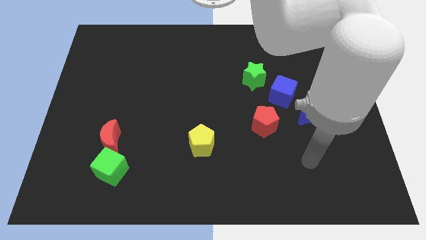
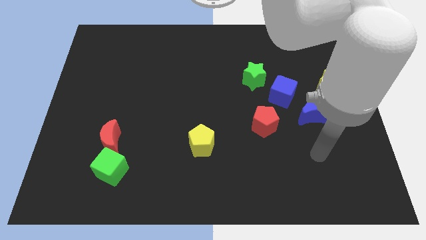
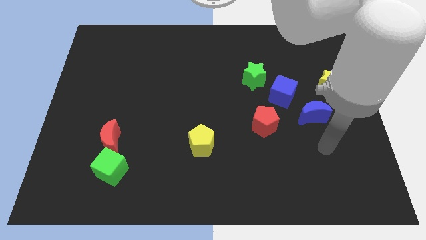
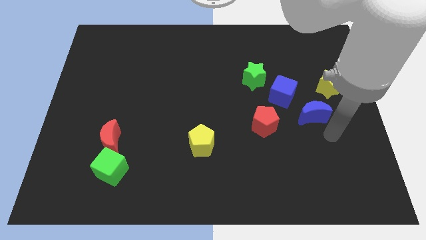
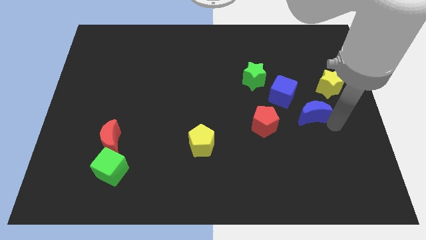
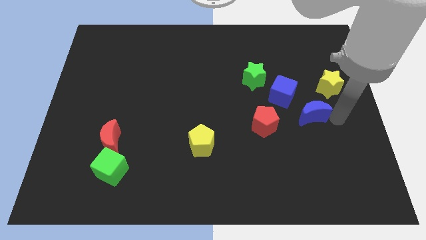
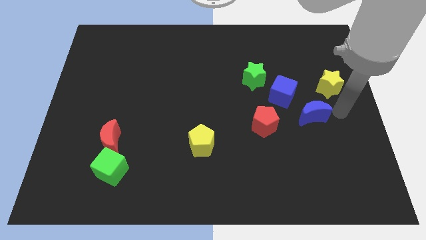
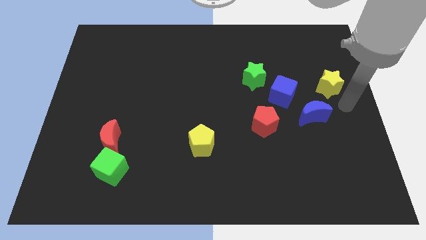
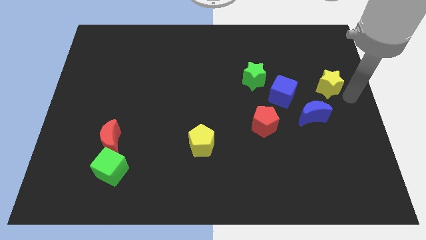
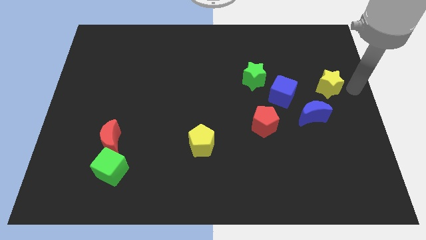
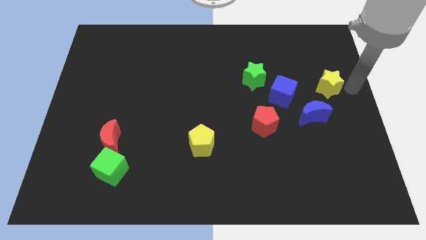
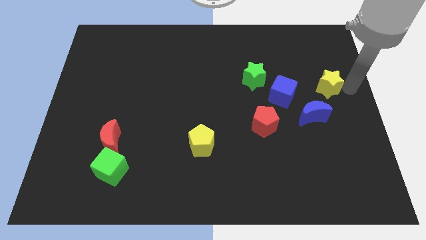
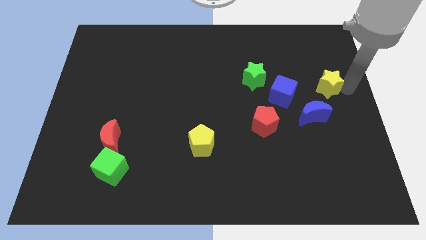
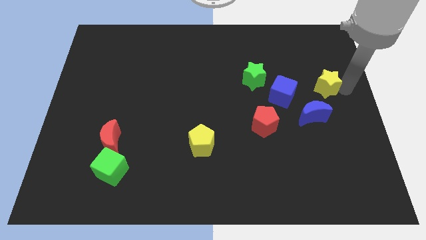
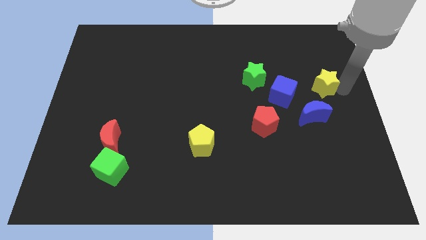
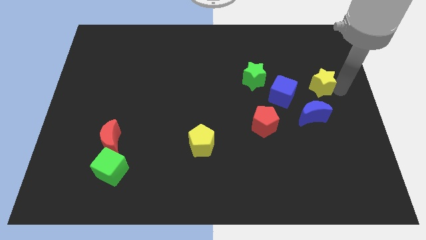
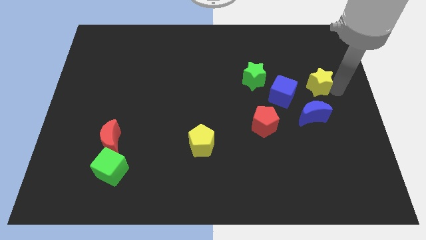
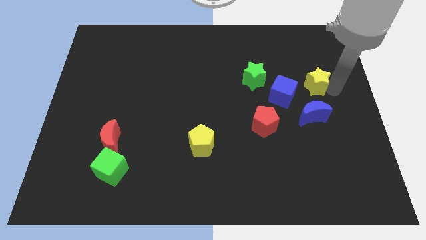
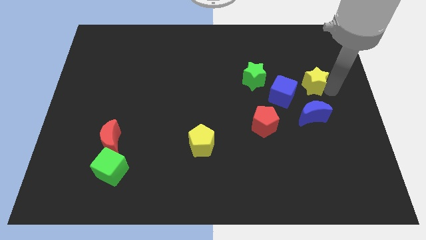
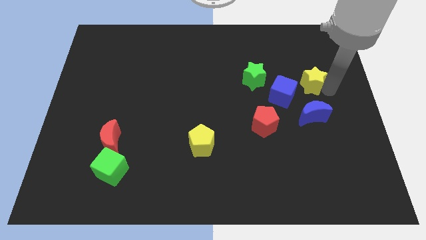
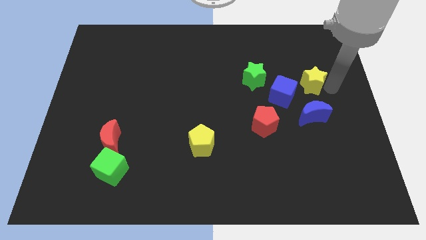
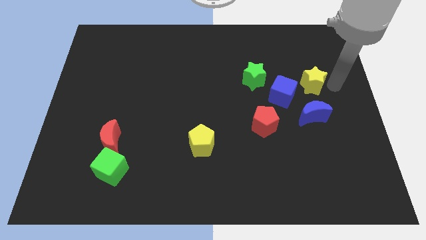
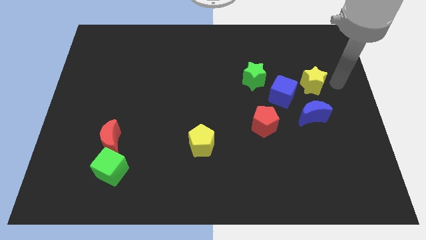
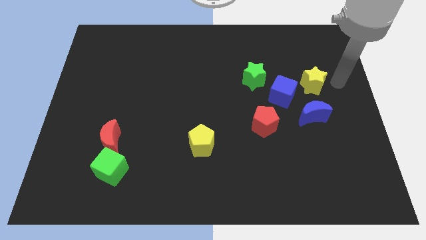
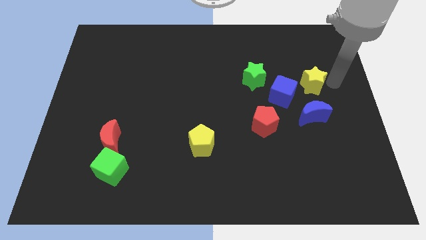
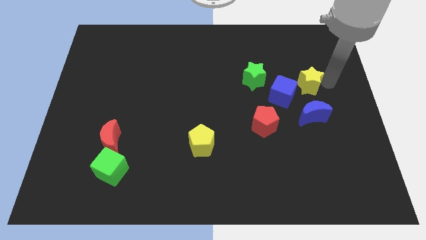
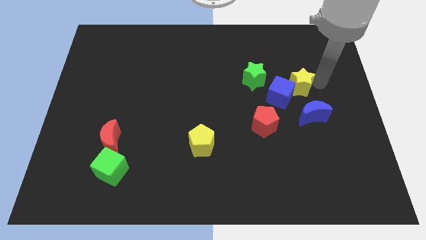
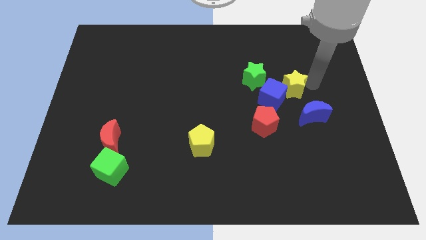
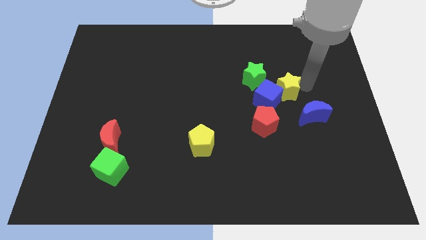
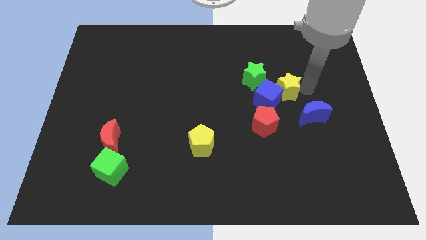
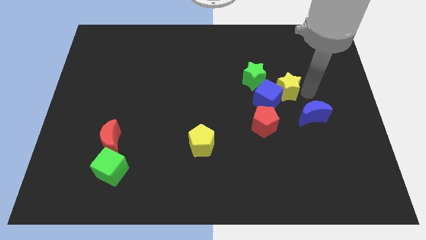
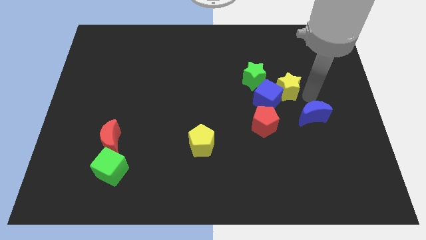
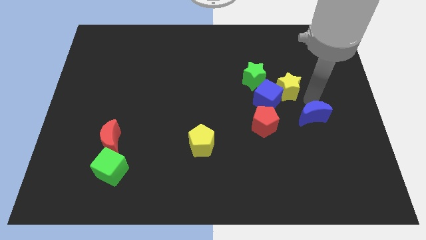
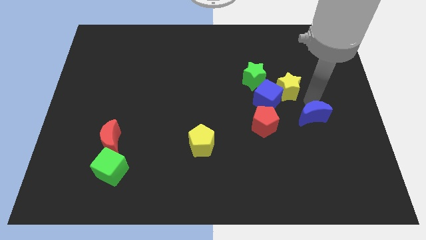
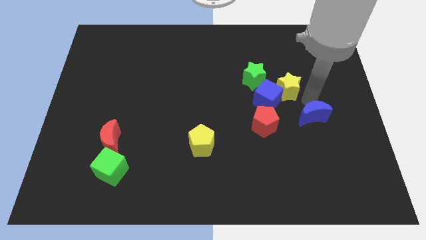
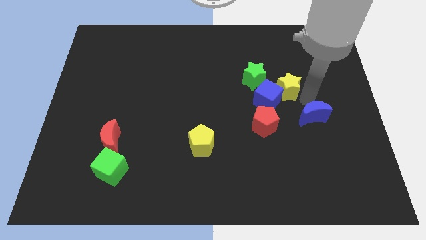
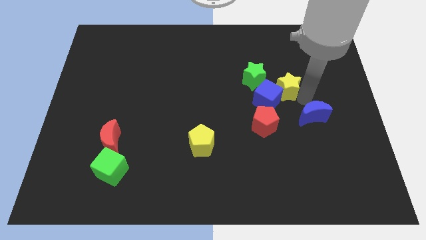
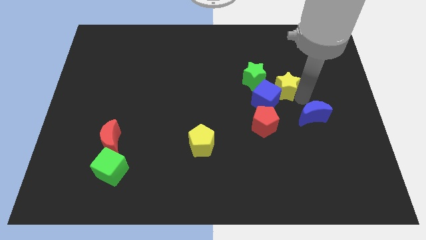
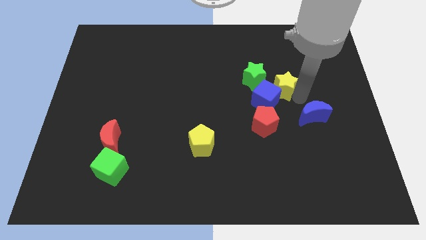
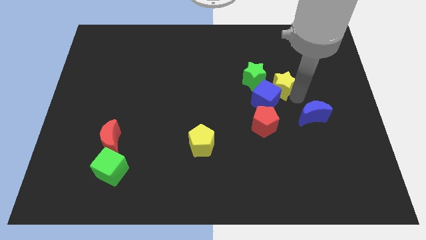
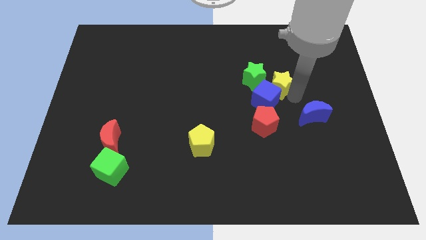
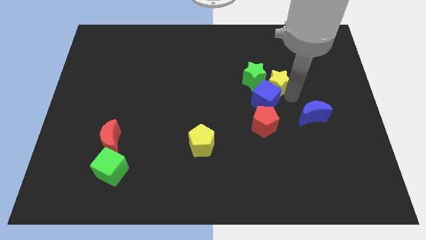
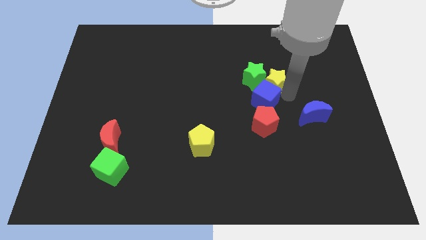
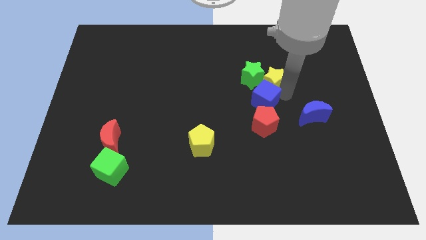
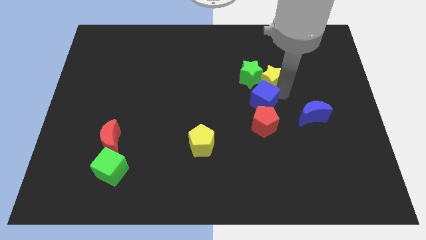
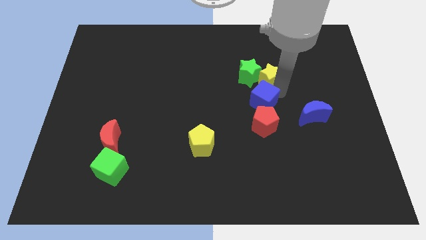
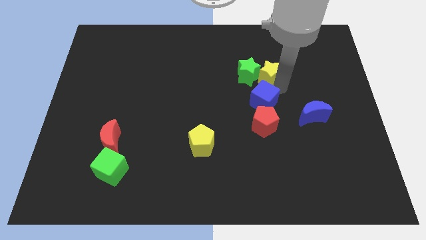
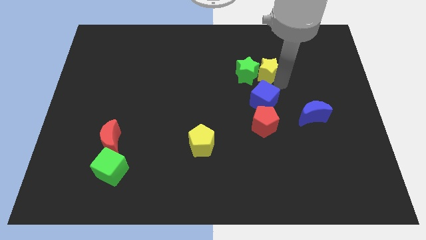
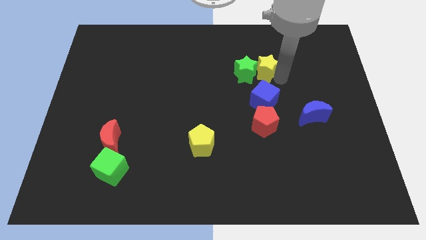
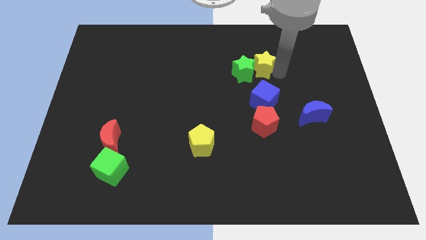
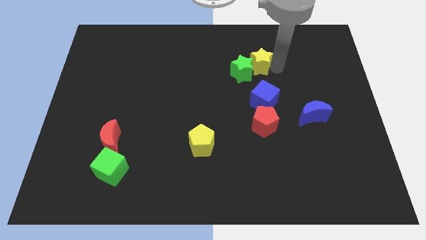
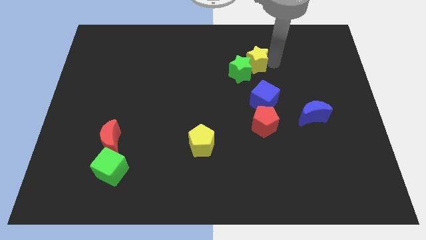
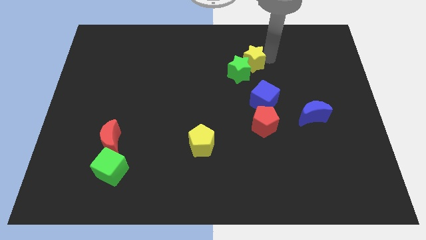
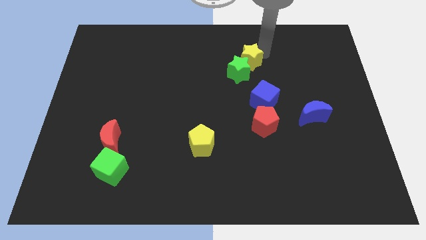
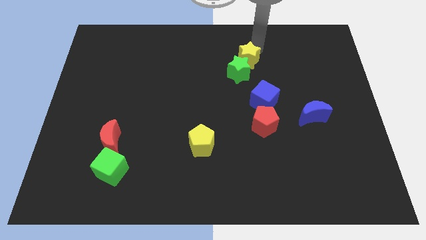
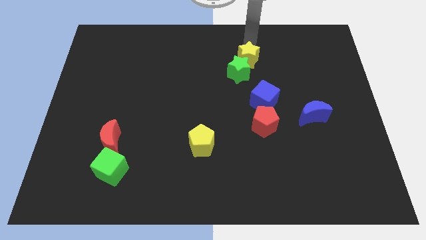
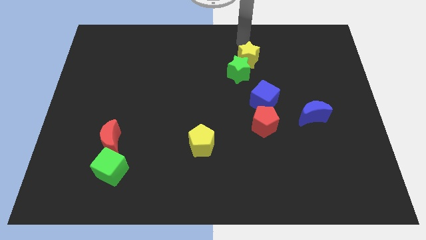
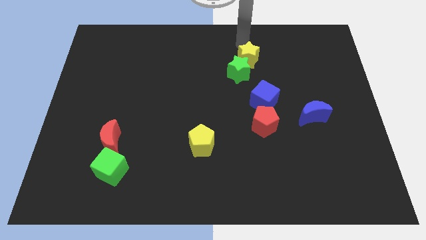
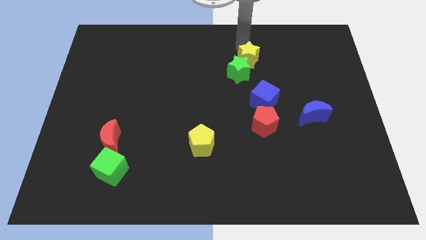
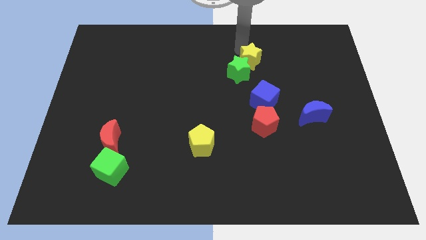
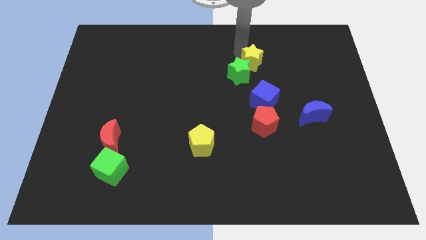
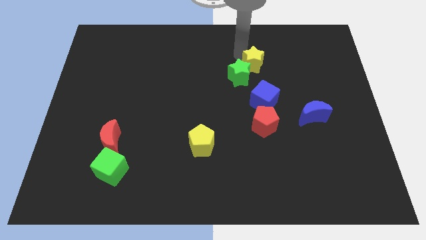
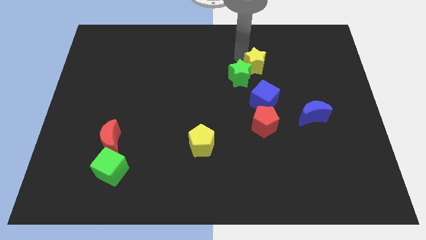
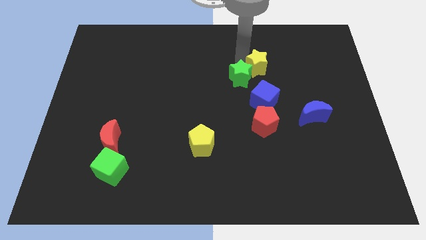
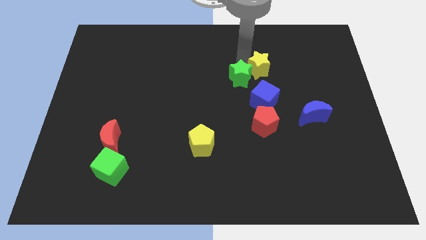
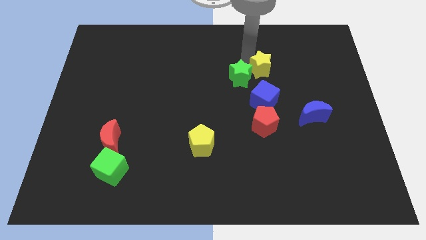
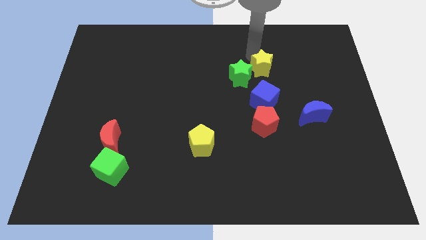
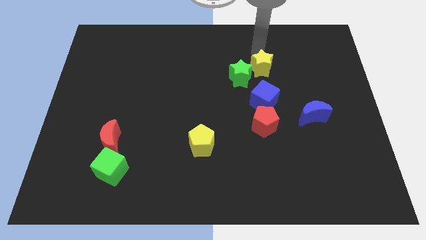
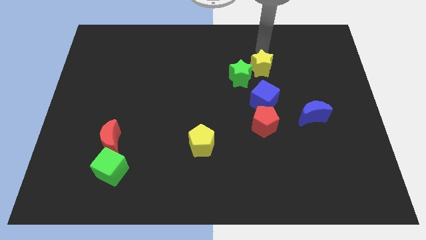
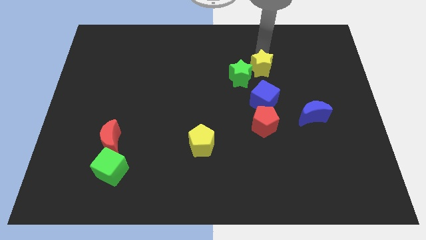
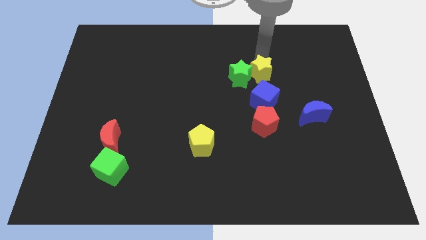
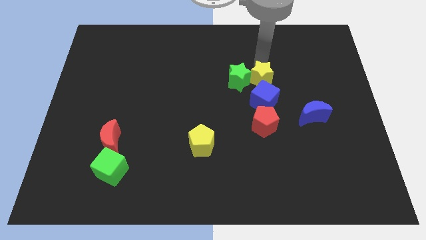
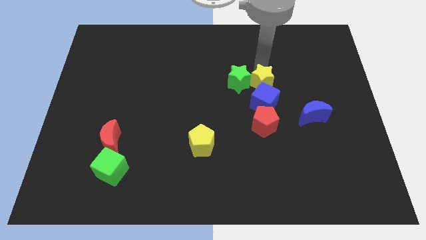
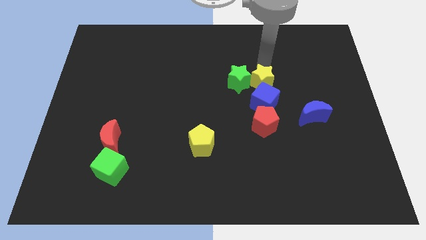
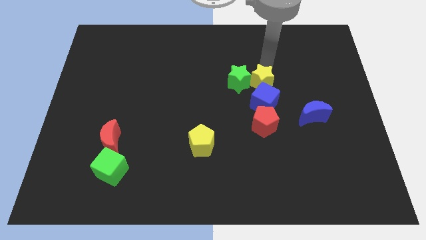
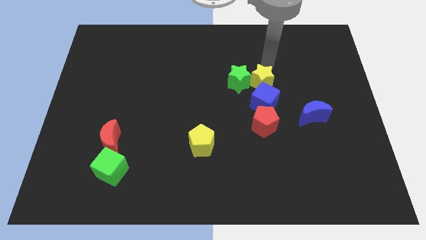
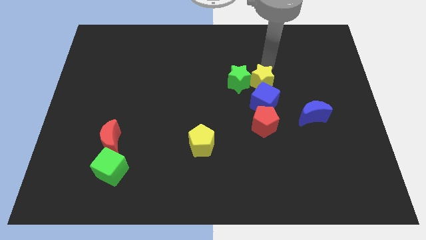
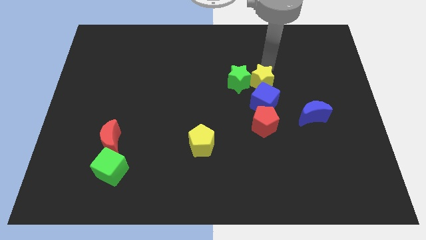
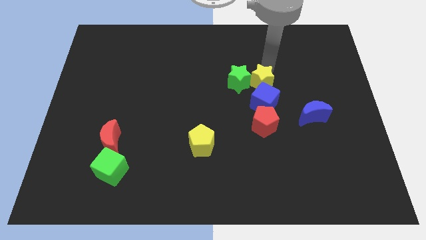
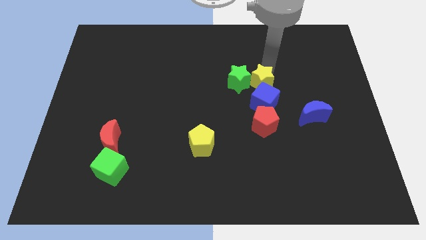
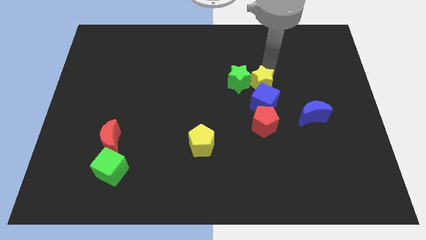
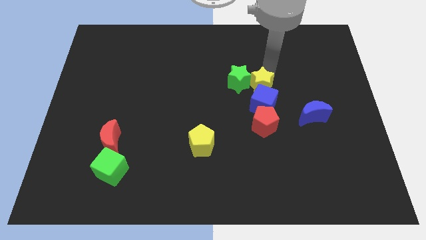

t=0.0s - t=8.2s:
move the yellow star to the middle
